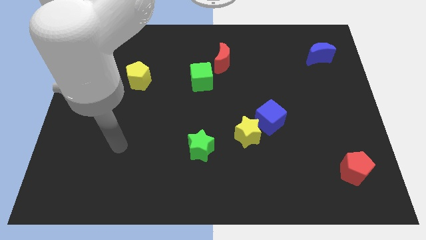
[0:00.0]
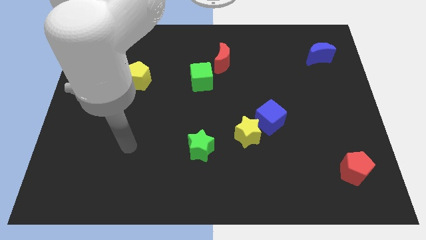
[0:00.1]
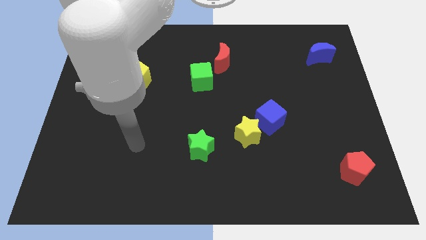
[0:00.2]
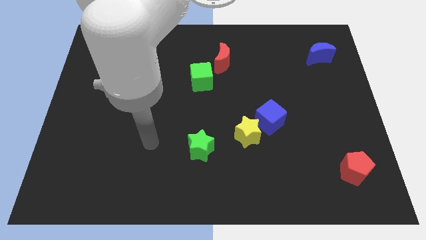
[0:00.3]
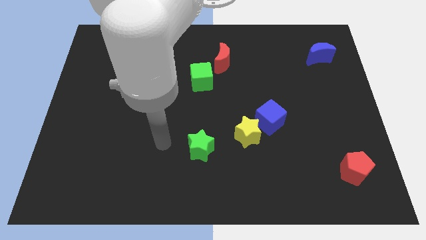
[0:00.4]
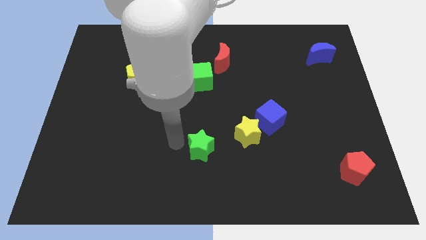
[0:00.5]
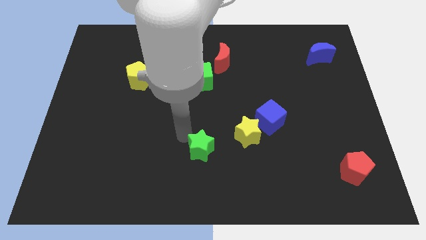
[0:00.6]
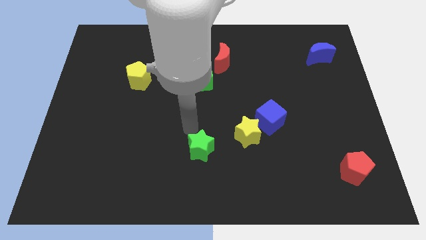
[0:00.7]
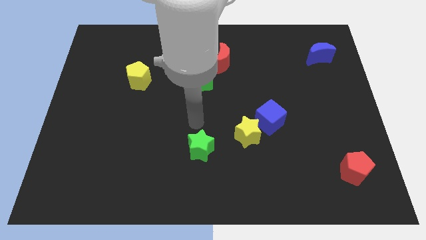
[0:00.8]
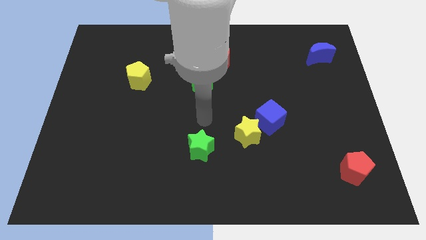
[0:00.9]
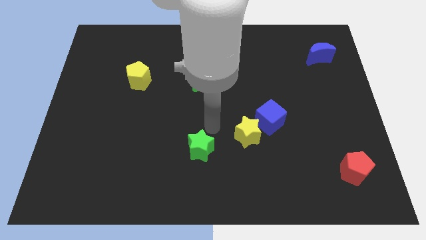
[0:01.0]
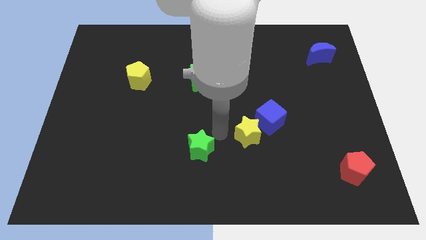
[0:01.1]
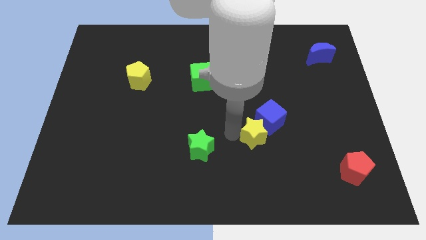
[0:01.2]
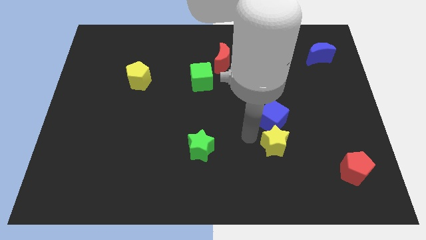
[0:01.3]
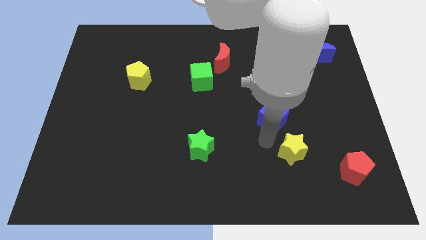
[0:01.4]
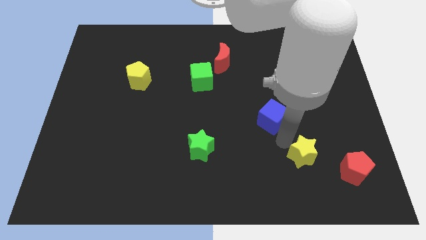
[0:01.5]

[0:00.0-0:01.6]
pull the blue cube apart from the yellow star

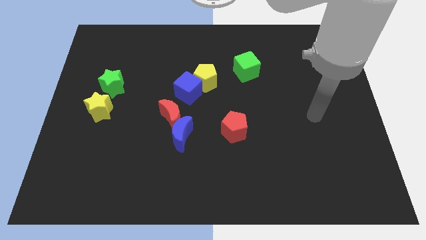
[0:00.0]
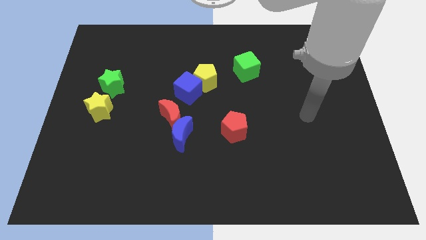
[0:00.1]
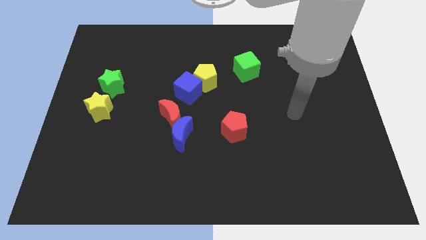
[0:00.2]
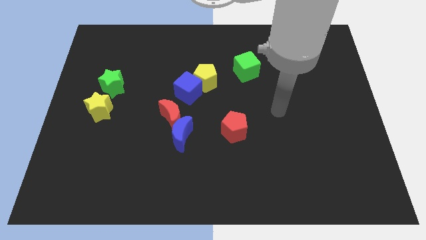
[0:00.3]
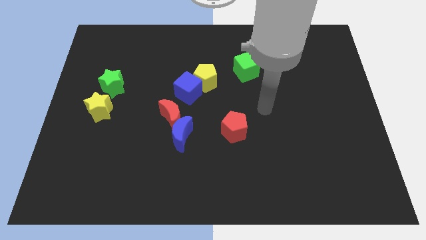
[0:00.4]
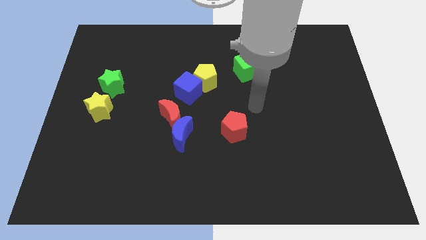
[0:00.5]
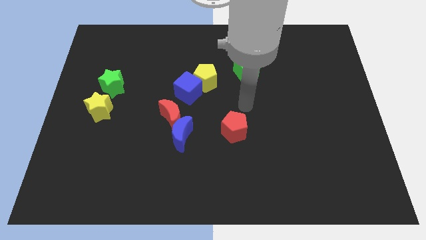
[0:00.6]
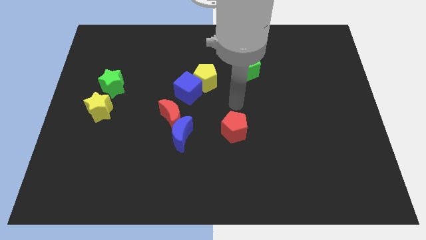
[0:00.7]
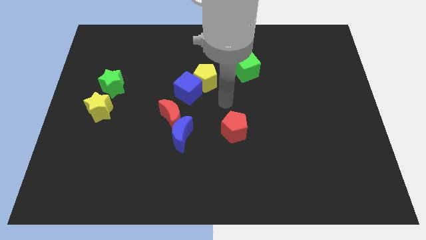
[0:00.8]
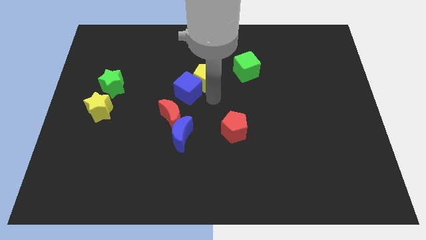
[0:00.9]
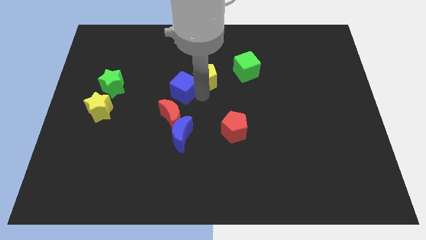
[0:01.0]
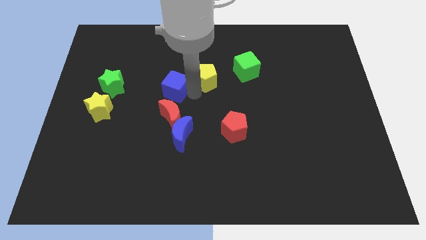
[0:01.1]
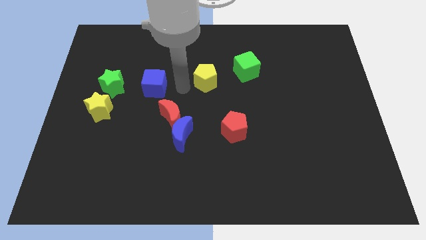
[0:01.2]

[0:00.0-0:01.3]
move the yellow pentagon away from the blue cube

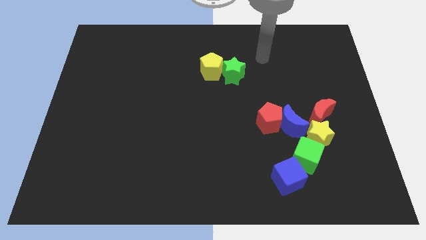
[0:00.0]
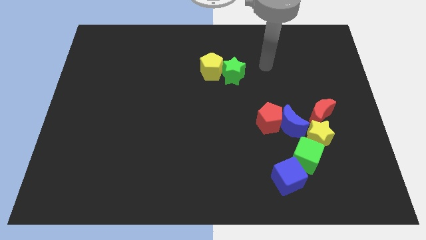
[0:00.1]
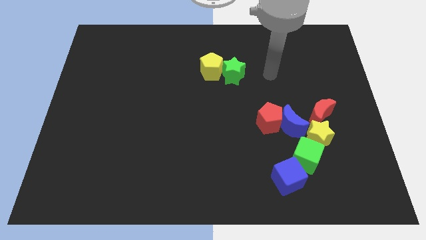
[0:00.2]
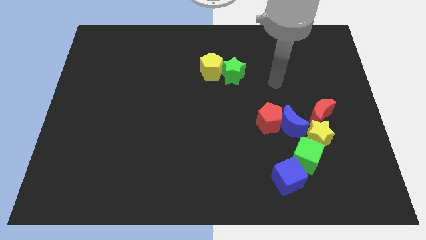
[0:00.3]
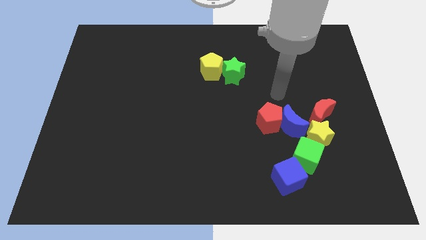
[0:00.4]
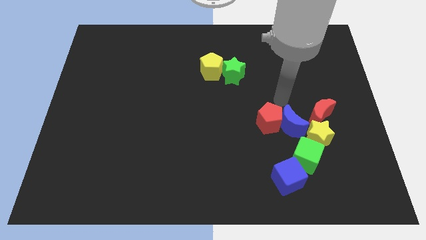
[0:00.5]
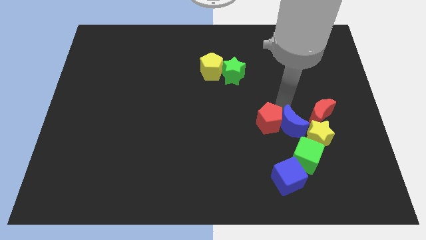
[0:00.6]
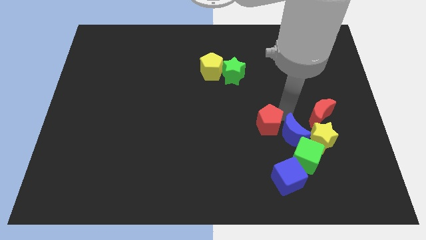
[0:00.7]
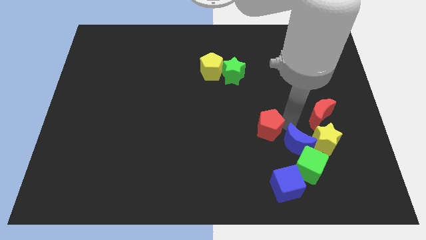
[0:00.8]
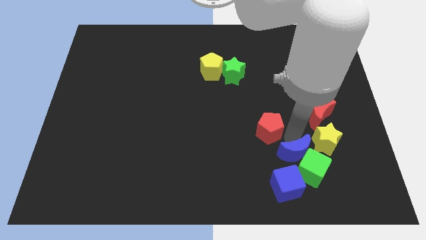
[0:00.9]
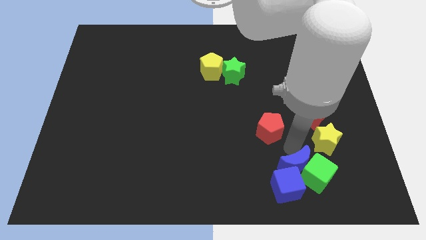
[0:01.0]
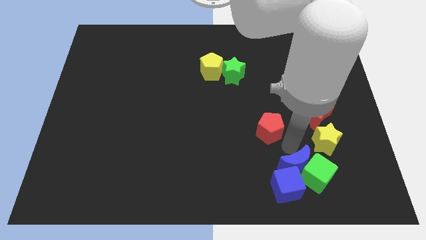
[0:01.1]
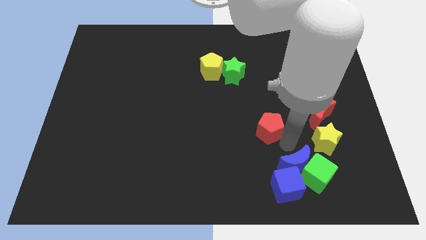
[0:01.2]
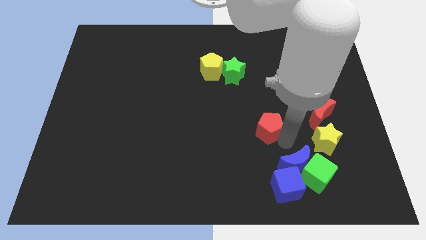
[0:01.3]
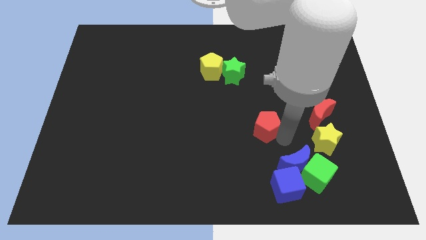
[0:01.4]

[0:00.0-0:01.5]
separate the red pentagon from the blue moon

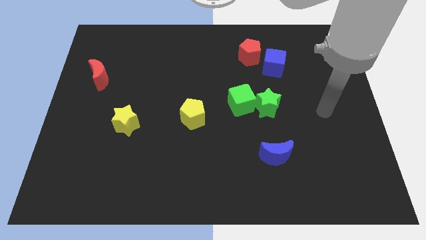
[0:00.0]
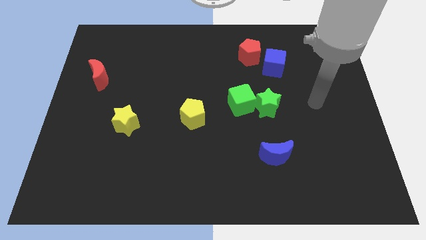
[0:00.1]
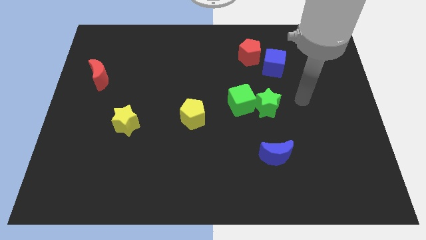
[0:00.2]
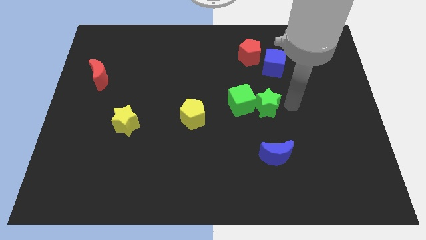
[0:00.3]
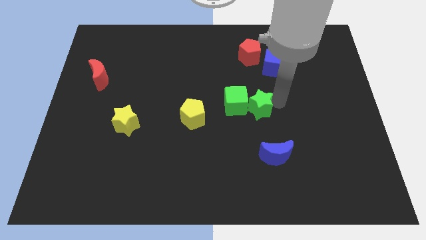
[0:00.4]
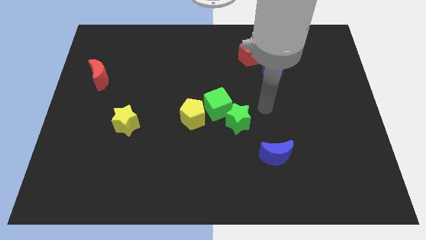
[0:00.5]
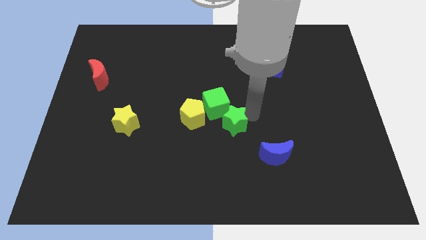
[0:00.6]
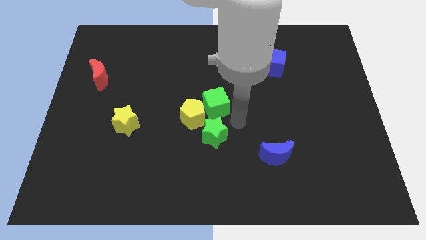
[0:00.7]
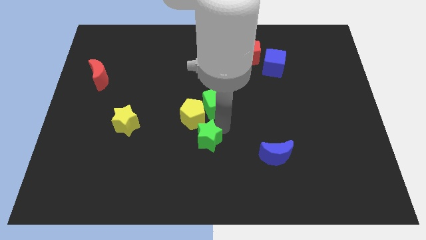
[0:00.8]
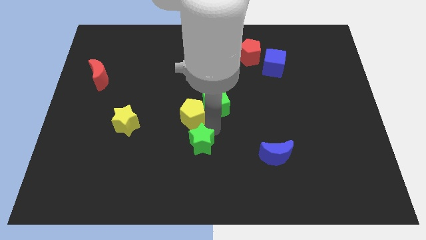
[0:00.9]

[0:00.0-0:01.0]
separate the green cube from the green star

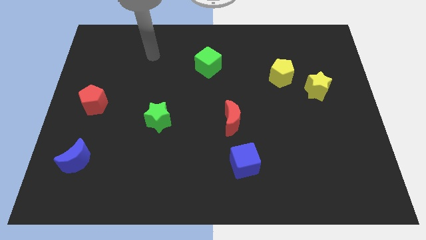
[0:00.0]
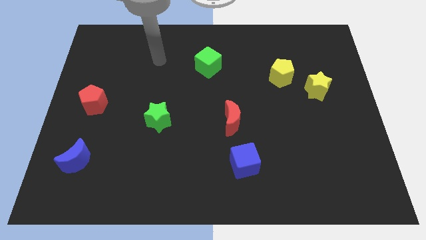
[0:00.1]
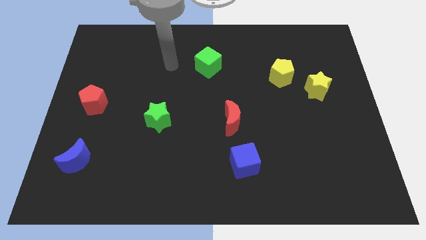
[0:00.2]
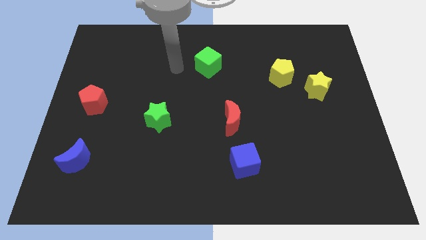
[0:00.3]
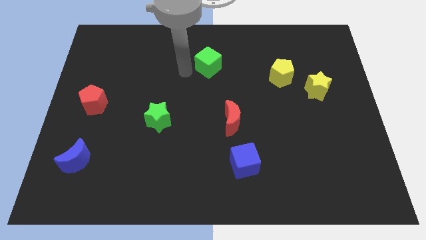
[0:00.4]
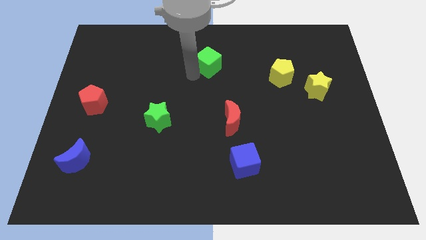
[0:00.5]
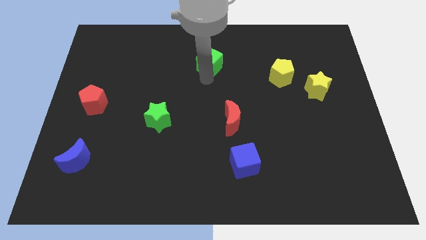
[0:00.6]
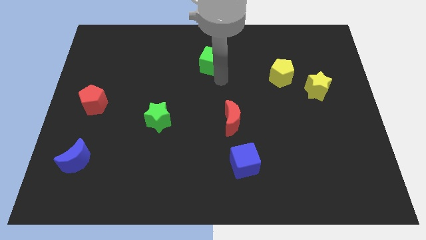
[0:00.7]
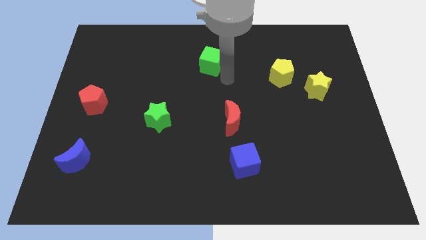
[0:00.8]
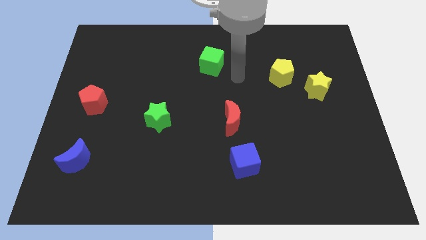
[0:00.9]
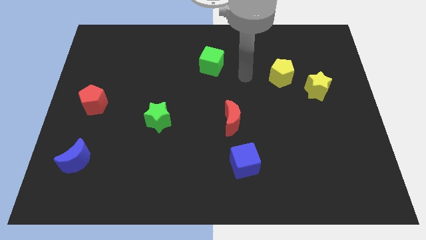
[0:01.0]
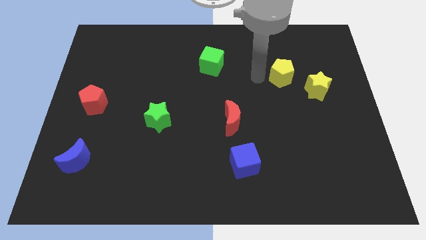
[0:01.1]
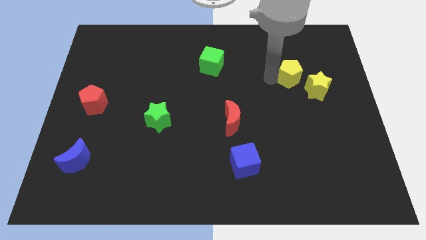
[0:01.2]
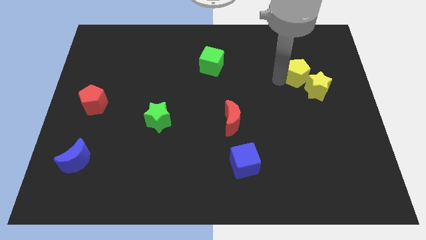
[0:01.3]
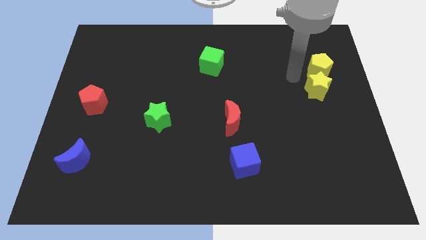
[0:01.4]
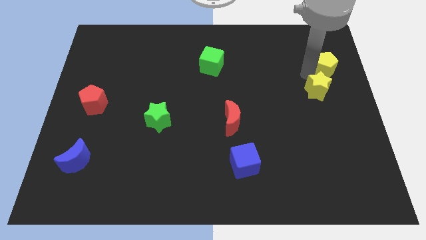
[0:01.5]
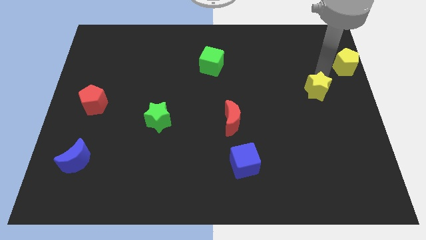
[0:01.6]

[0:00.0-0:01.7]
pull the yellow star apart from the yellow pentagon

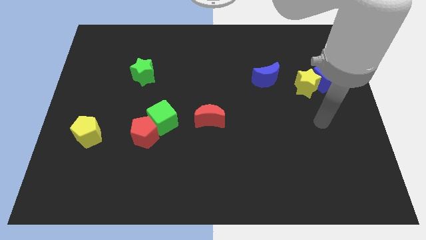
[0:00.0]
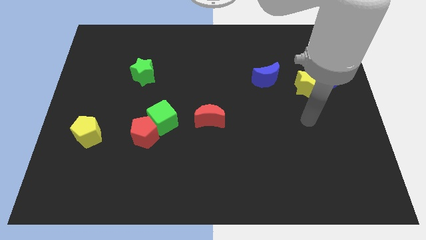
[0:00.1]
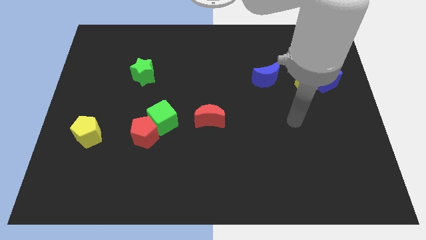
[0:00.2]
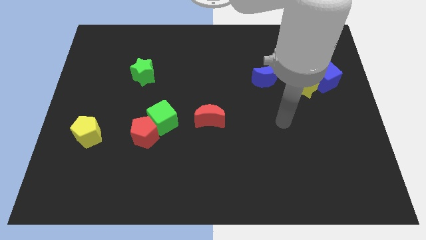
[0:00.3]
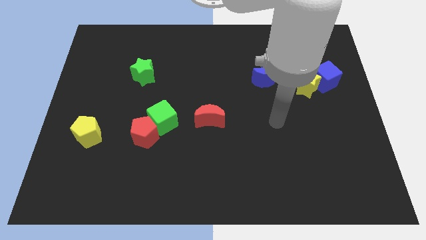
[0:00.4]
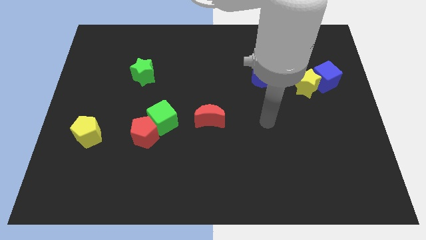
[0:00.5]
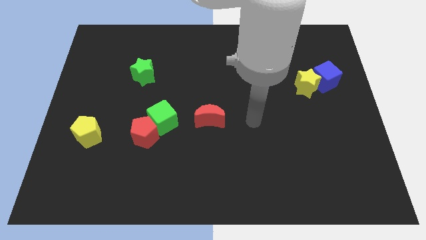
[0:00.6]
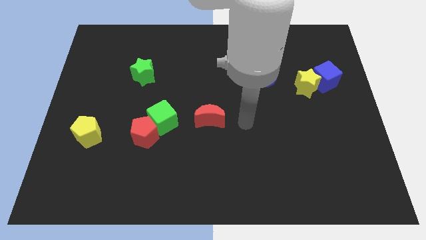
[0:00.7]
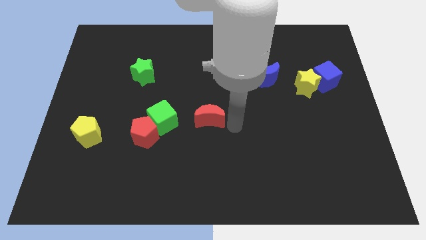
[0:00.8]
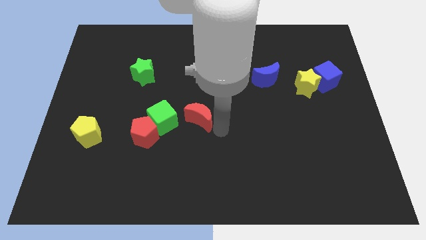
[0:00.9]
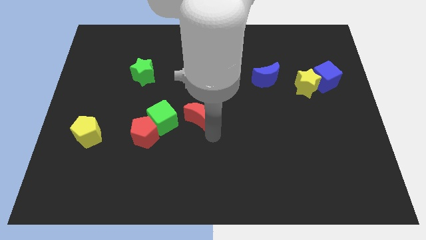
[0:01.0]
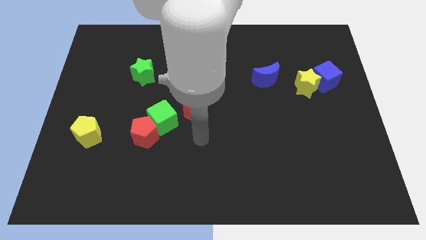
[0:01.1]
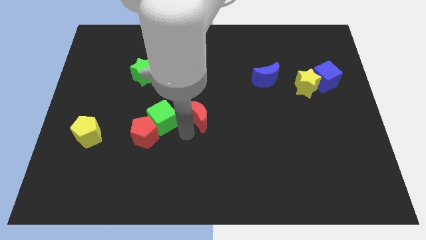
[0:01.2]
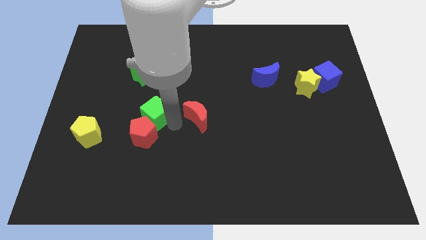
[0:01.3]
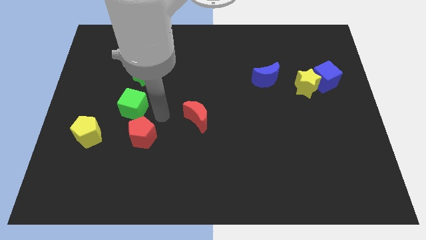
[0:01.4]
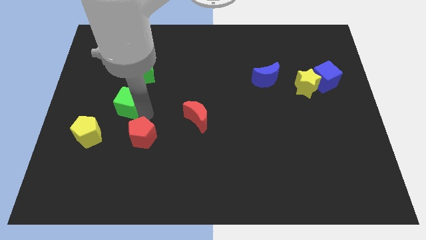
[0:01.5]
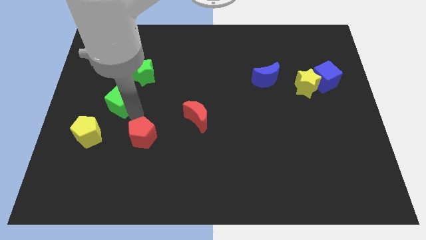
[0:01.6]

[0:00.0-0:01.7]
separate the red pentagon from the green cube

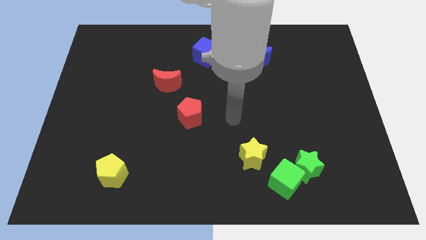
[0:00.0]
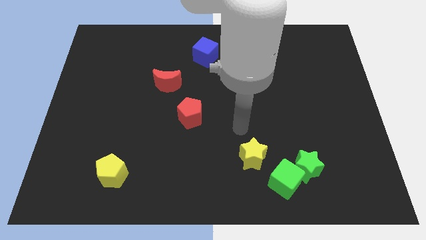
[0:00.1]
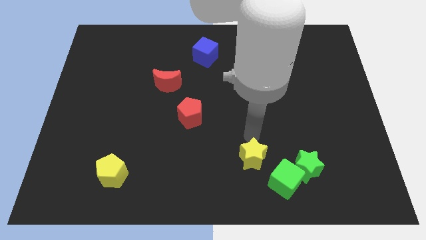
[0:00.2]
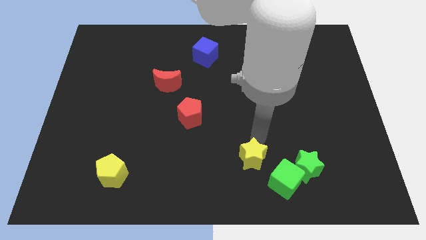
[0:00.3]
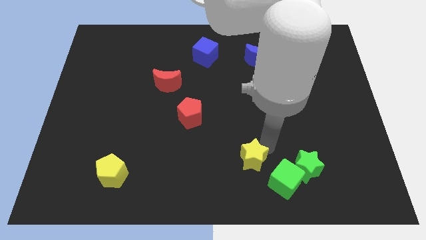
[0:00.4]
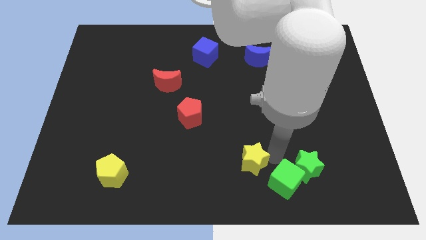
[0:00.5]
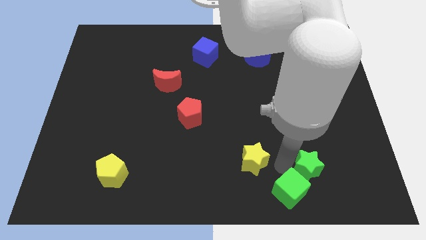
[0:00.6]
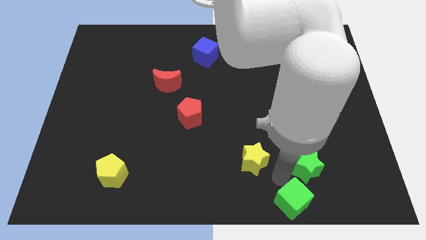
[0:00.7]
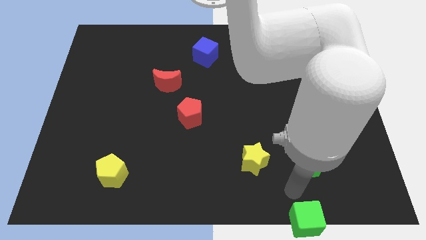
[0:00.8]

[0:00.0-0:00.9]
move the green star away from the green cube
